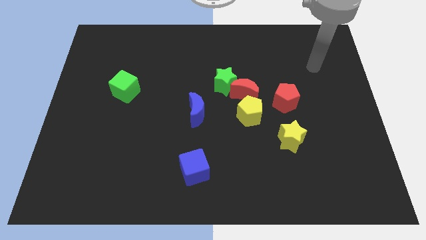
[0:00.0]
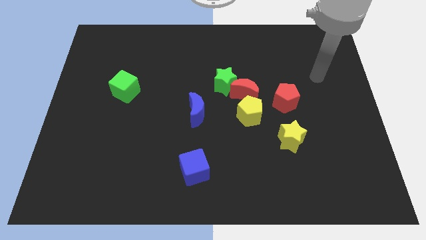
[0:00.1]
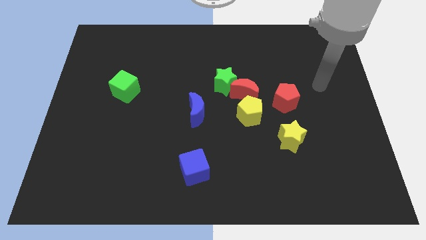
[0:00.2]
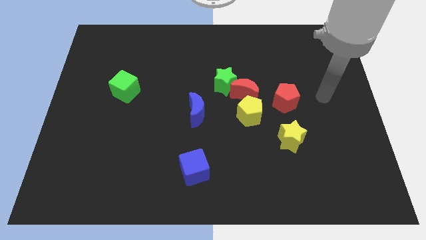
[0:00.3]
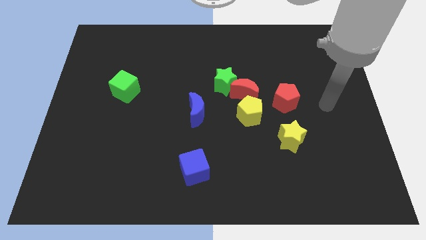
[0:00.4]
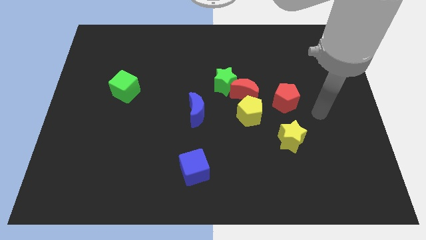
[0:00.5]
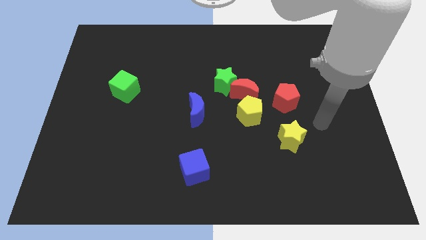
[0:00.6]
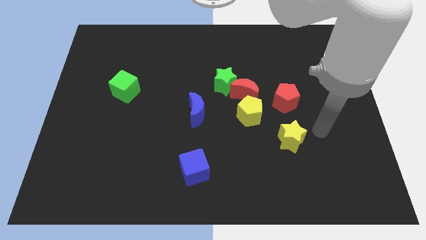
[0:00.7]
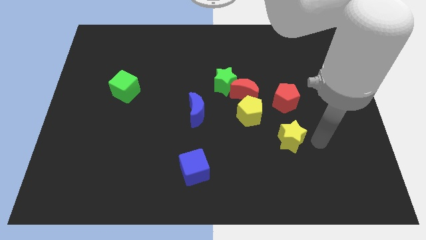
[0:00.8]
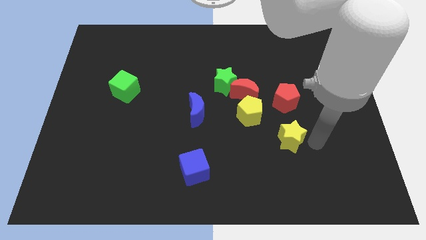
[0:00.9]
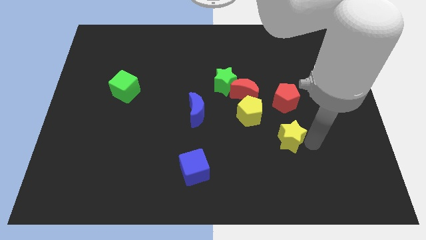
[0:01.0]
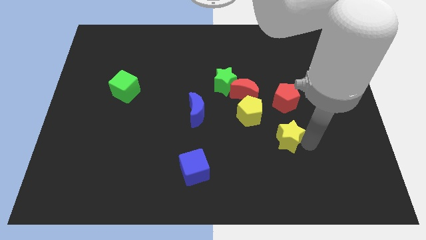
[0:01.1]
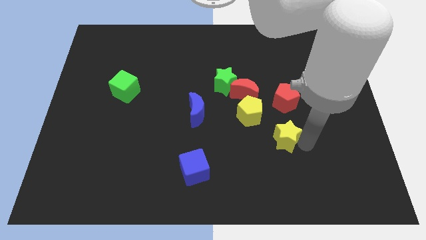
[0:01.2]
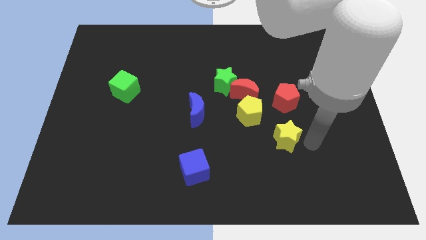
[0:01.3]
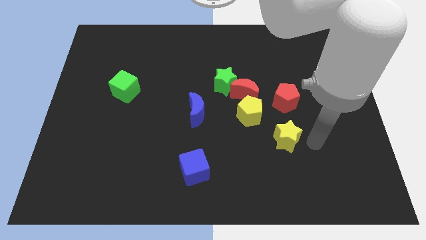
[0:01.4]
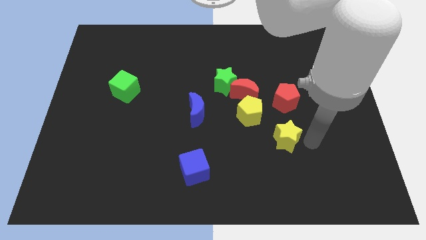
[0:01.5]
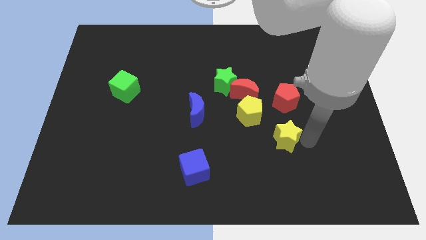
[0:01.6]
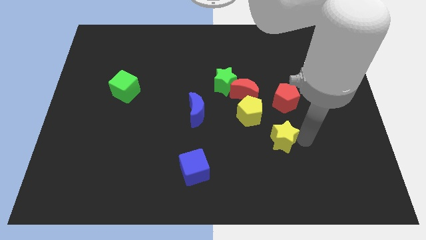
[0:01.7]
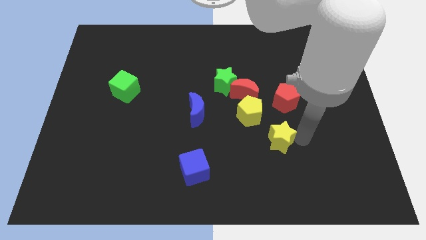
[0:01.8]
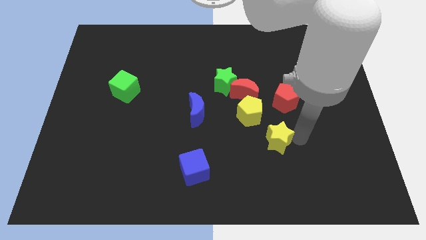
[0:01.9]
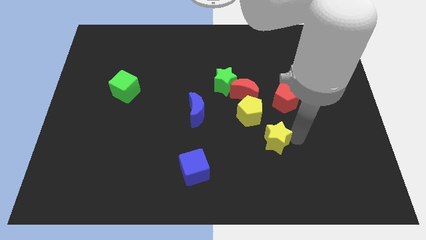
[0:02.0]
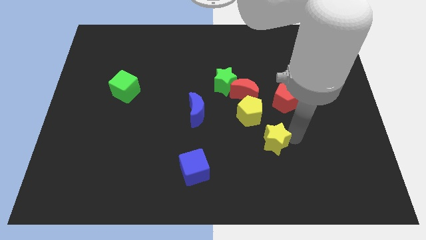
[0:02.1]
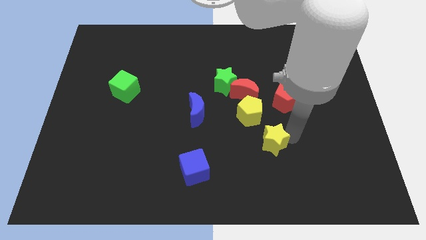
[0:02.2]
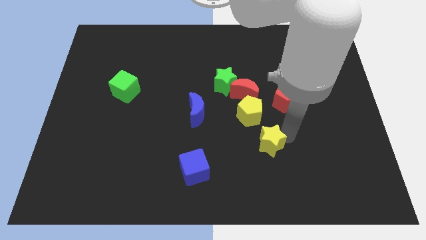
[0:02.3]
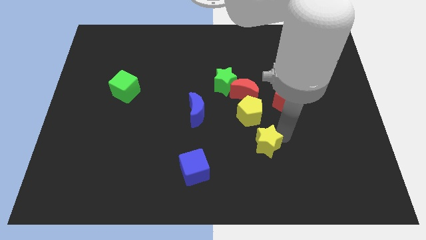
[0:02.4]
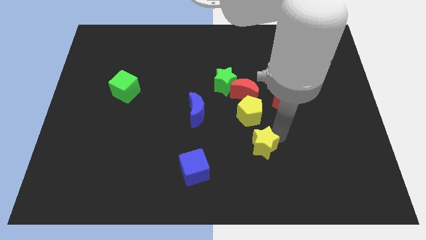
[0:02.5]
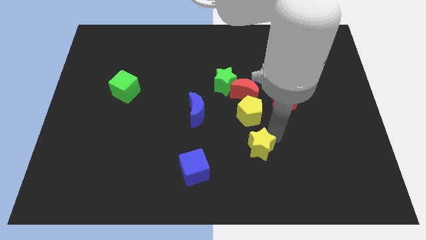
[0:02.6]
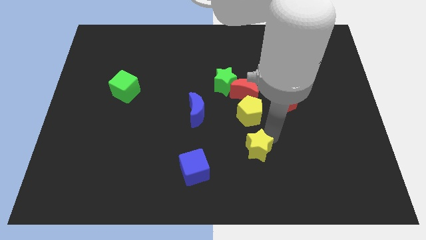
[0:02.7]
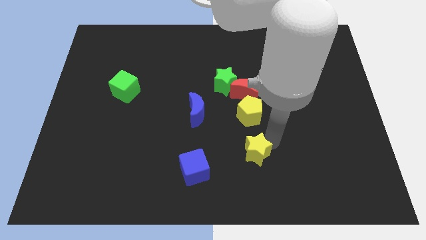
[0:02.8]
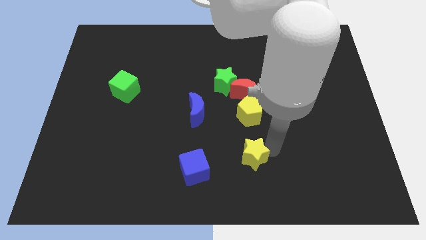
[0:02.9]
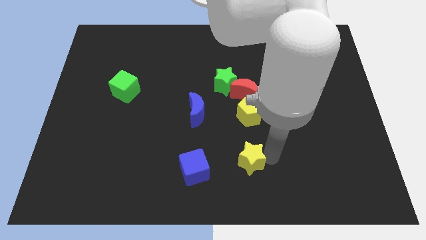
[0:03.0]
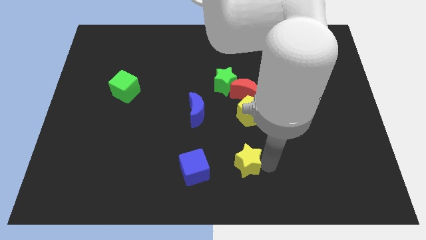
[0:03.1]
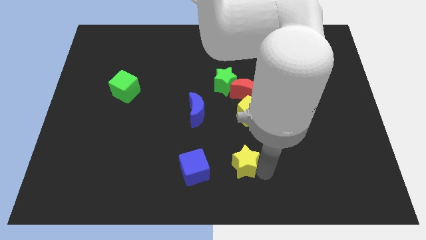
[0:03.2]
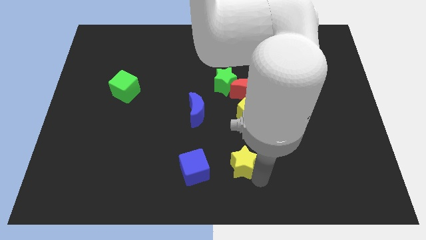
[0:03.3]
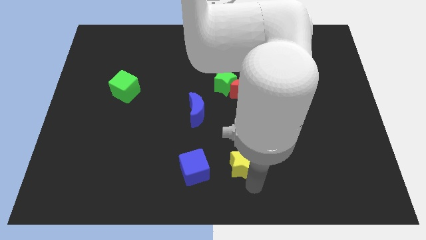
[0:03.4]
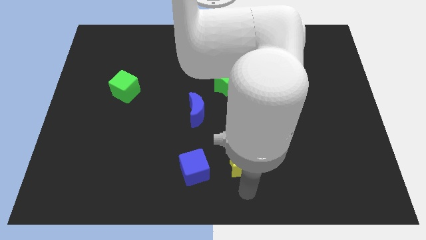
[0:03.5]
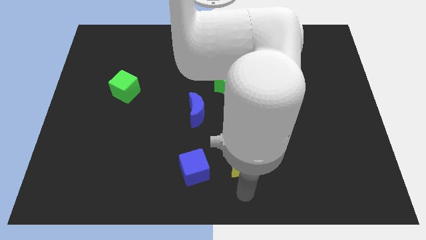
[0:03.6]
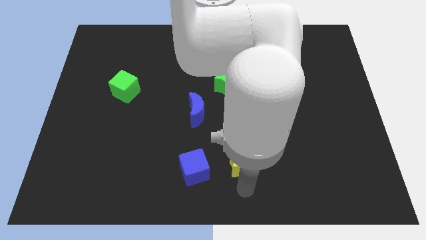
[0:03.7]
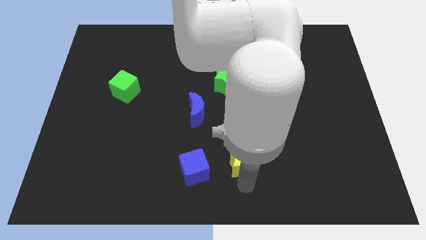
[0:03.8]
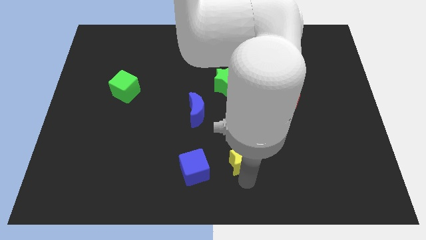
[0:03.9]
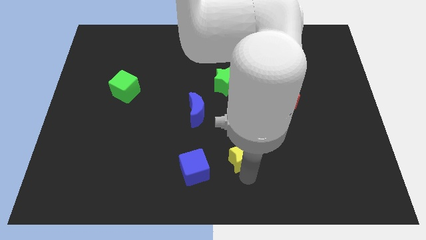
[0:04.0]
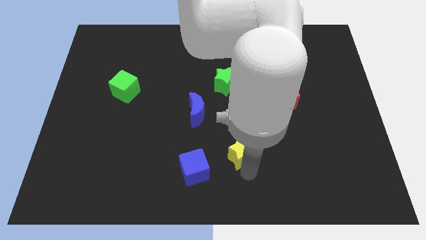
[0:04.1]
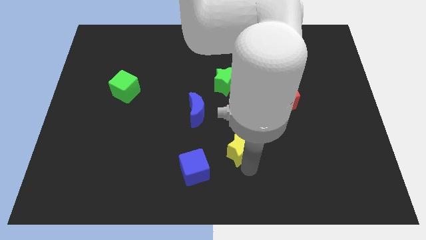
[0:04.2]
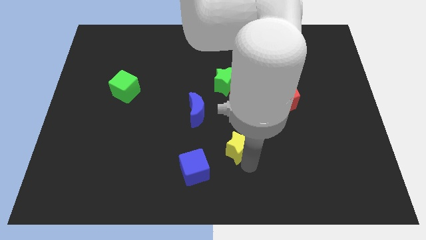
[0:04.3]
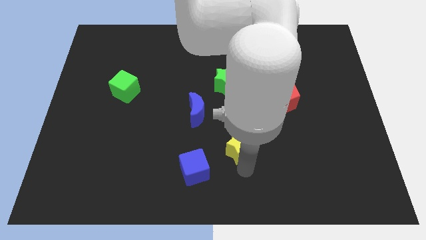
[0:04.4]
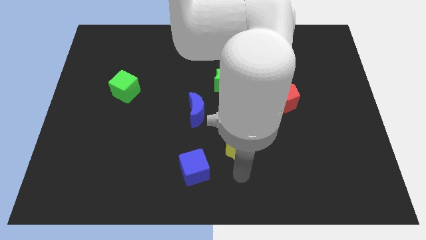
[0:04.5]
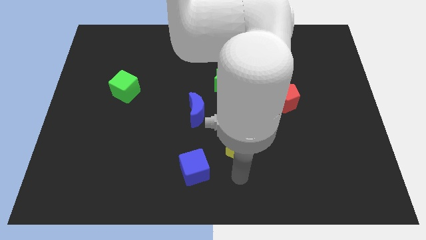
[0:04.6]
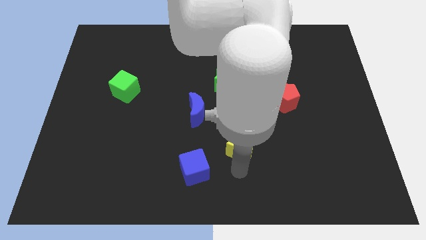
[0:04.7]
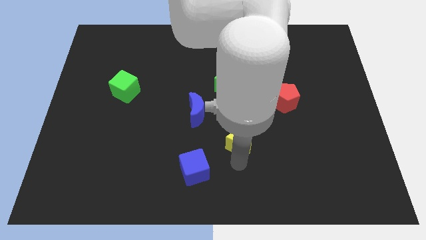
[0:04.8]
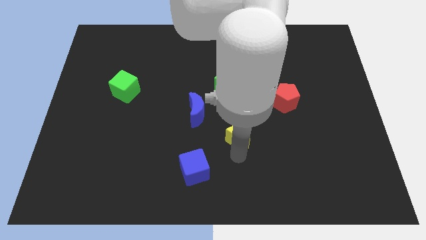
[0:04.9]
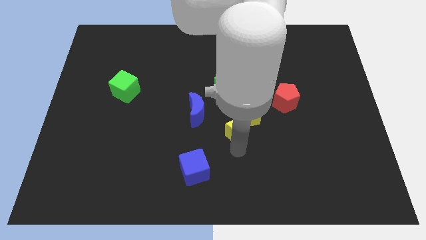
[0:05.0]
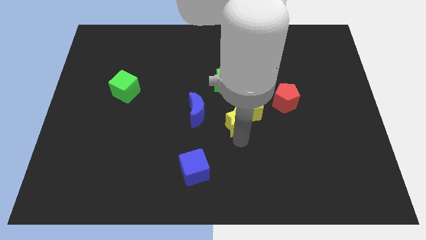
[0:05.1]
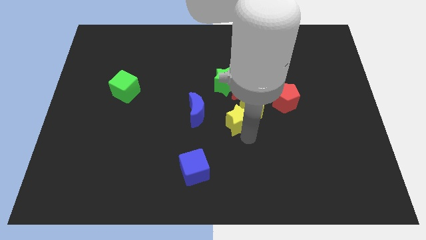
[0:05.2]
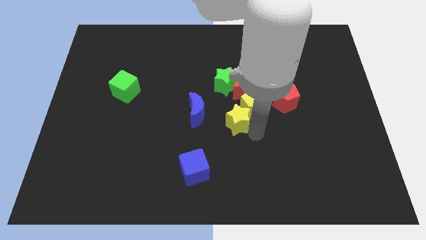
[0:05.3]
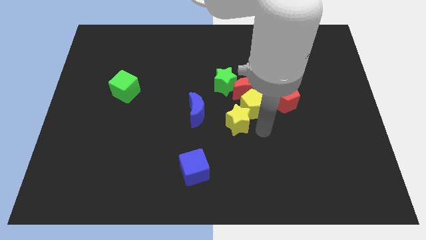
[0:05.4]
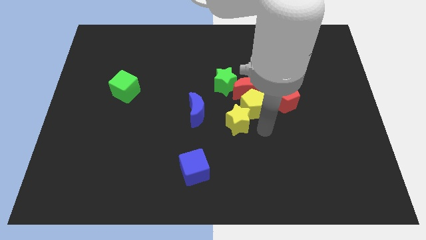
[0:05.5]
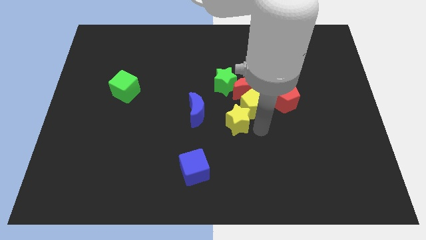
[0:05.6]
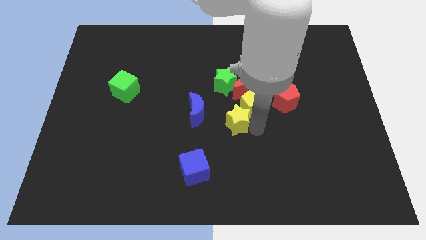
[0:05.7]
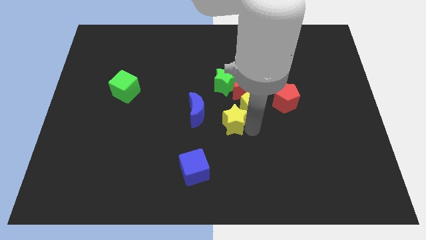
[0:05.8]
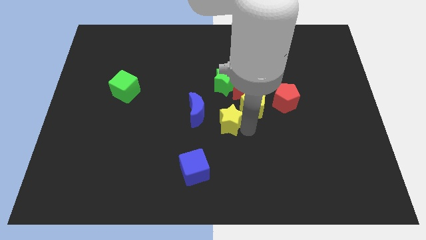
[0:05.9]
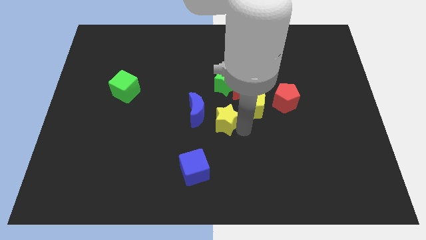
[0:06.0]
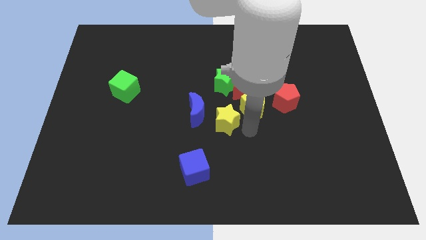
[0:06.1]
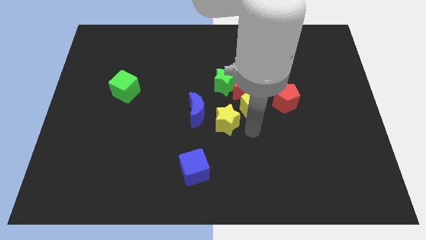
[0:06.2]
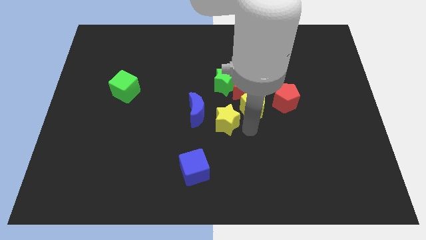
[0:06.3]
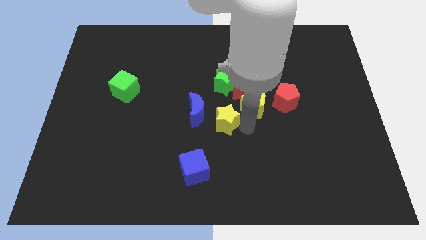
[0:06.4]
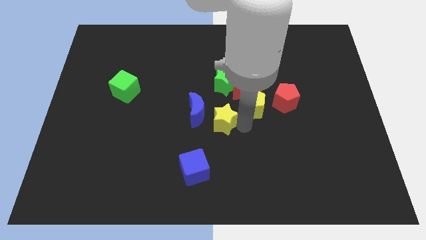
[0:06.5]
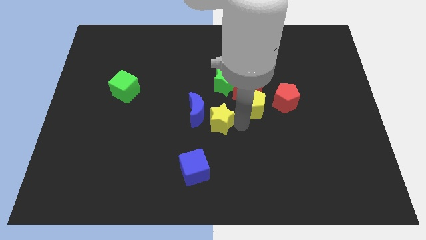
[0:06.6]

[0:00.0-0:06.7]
put the yellow star to the blue moon

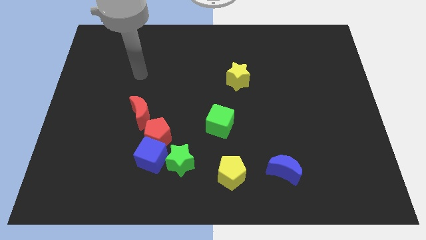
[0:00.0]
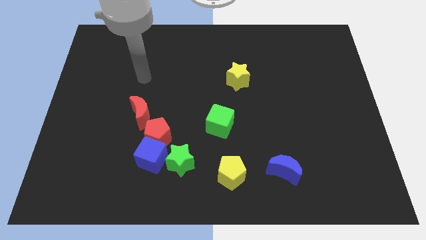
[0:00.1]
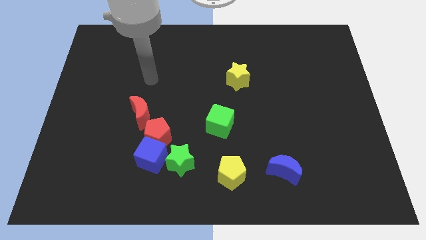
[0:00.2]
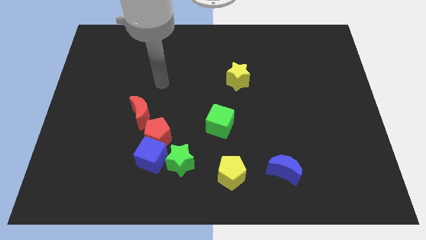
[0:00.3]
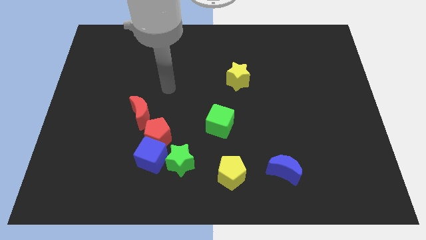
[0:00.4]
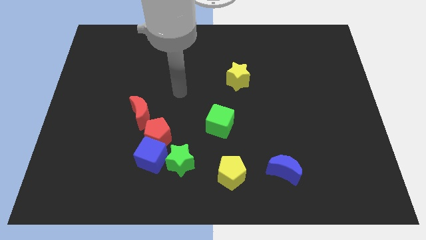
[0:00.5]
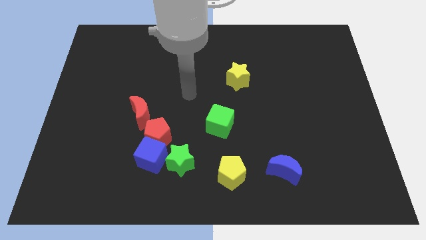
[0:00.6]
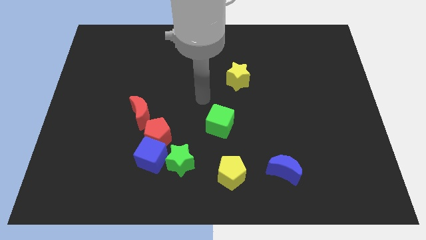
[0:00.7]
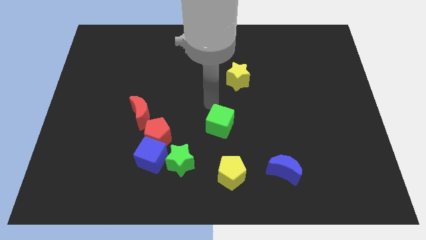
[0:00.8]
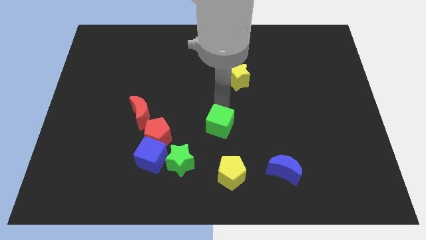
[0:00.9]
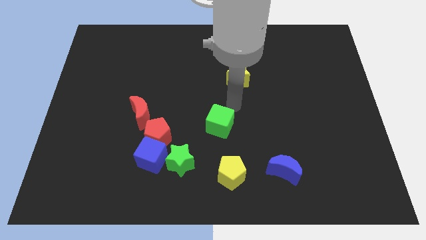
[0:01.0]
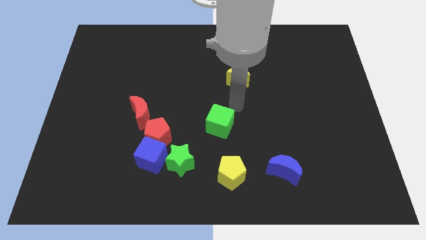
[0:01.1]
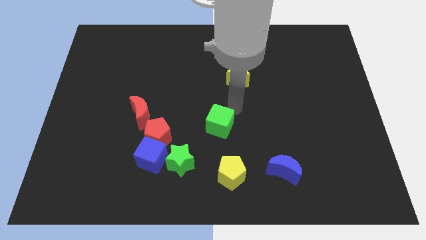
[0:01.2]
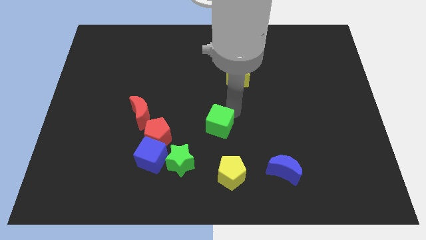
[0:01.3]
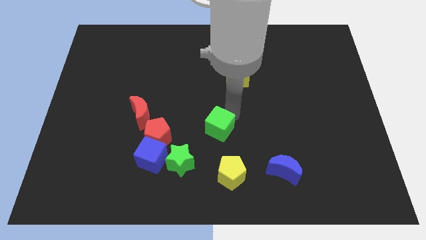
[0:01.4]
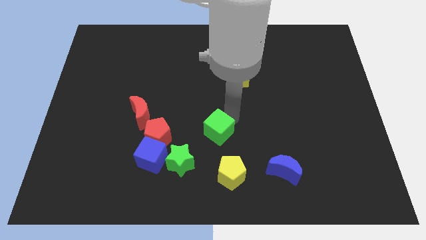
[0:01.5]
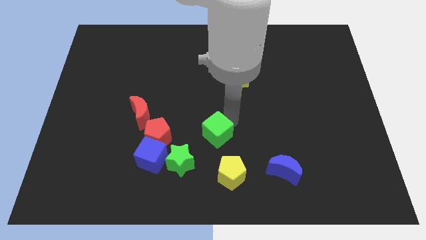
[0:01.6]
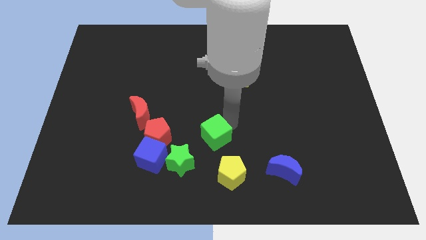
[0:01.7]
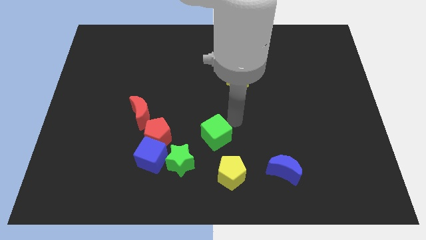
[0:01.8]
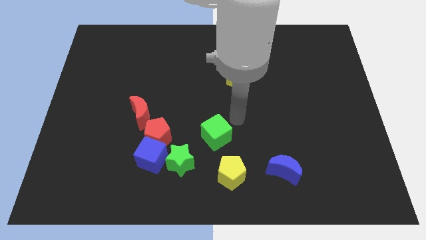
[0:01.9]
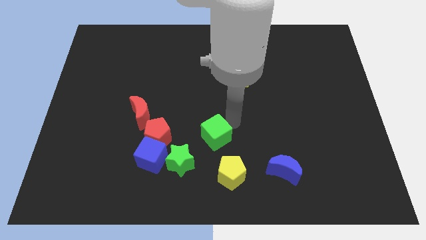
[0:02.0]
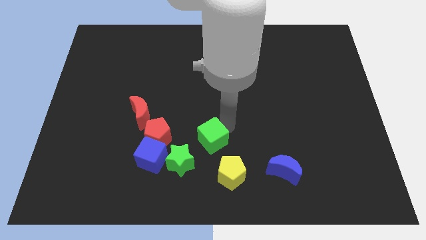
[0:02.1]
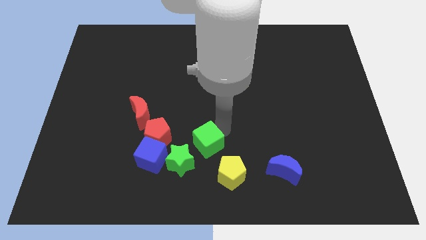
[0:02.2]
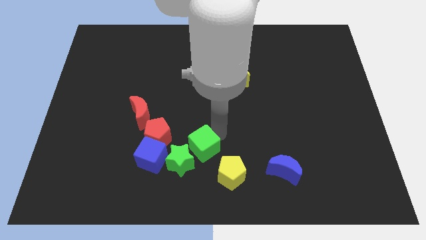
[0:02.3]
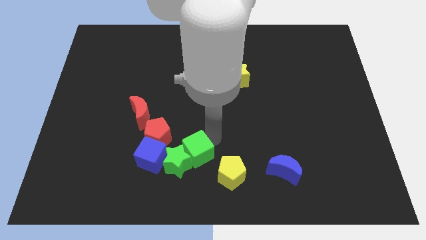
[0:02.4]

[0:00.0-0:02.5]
put the green cube close to the green star
